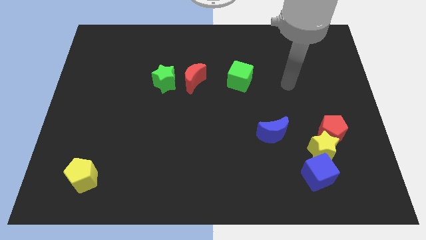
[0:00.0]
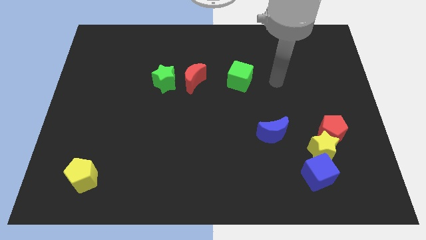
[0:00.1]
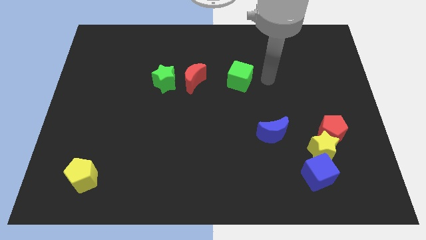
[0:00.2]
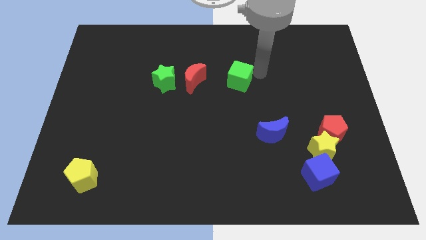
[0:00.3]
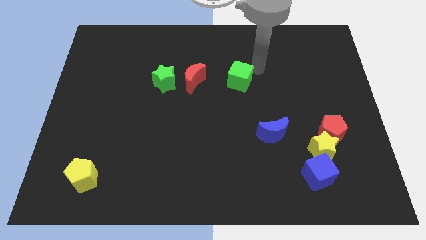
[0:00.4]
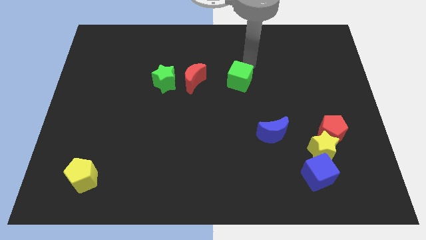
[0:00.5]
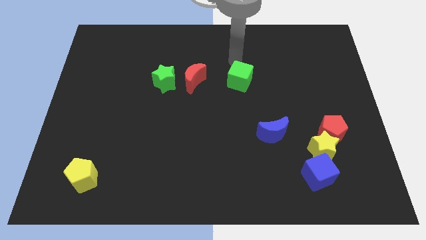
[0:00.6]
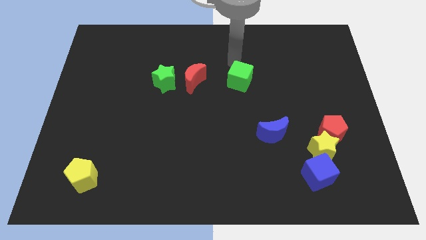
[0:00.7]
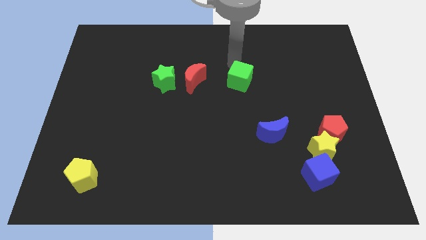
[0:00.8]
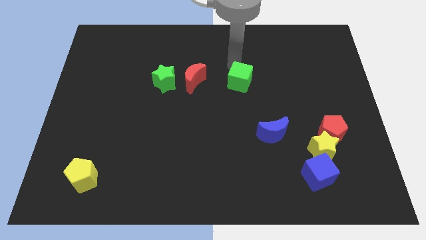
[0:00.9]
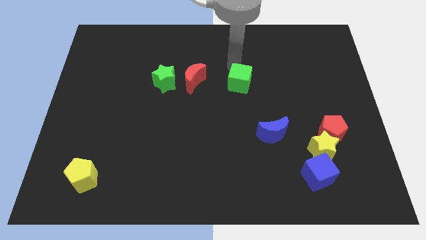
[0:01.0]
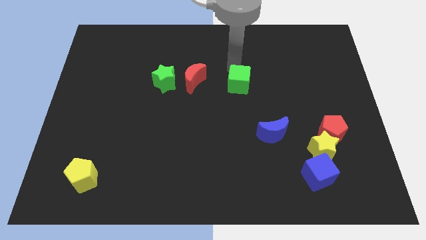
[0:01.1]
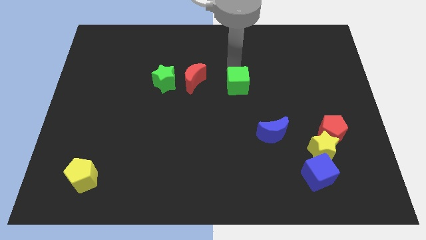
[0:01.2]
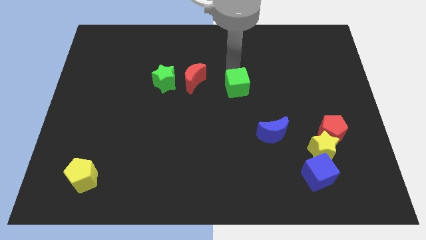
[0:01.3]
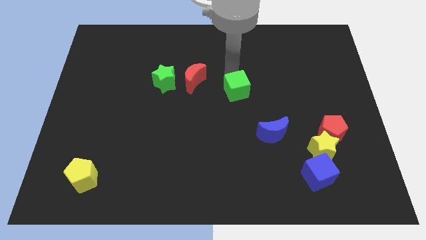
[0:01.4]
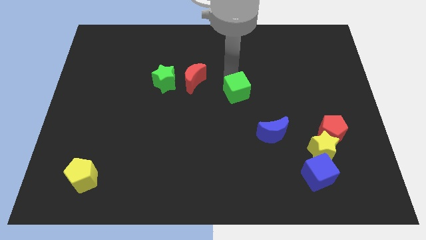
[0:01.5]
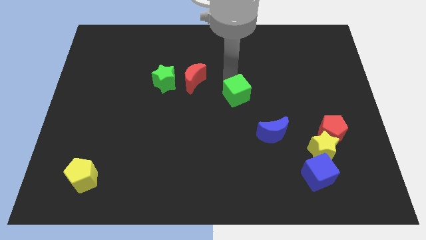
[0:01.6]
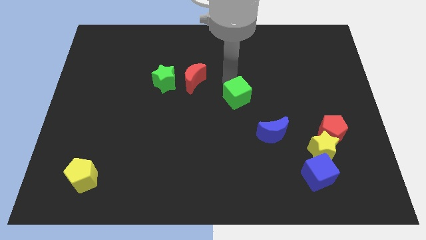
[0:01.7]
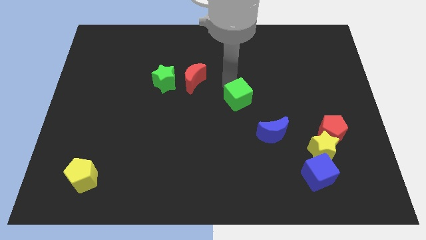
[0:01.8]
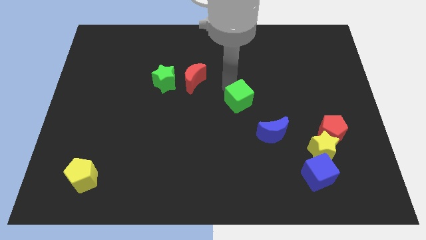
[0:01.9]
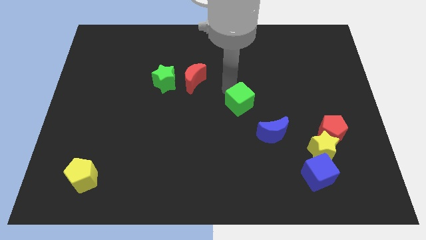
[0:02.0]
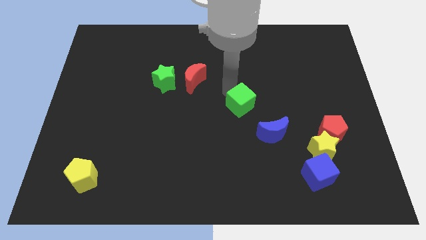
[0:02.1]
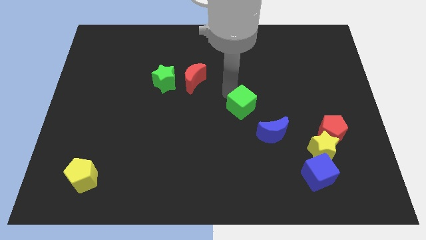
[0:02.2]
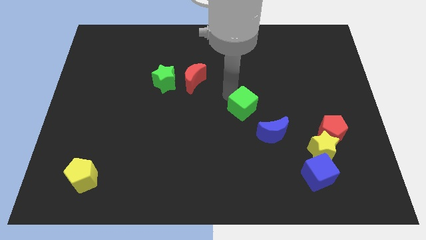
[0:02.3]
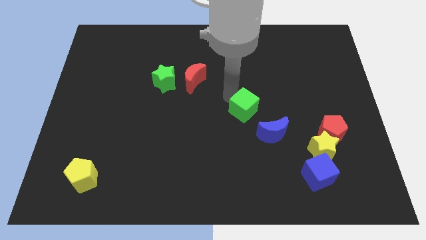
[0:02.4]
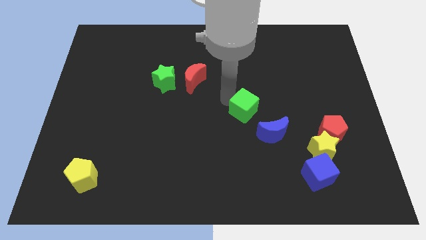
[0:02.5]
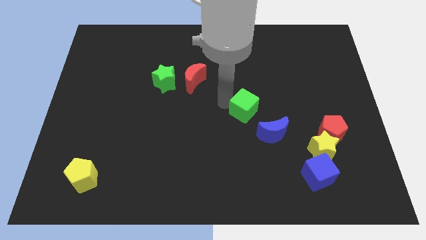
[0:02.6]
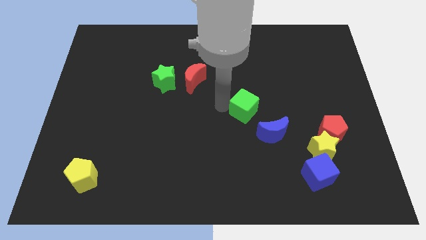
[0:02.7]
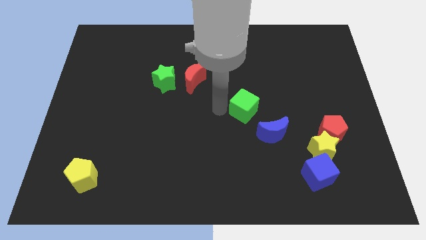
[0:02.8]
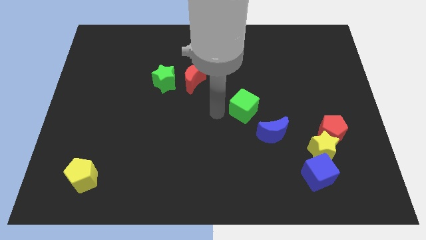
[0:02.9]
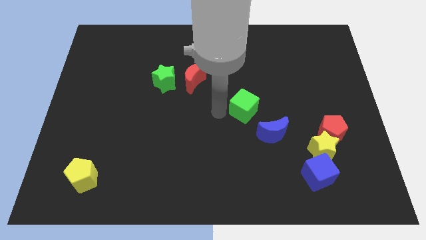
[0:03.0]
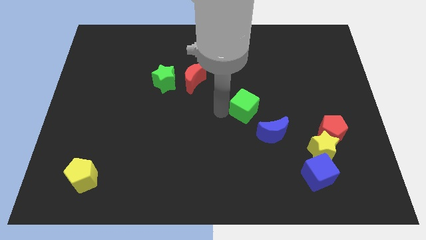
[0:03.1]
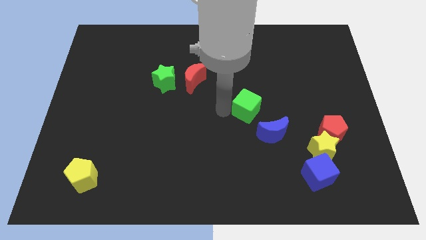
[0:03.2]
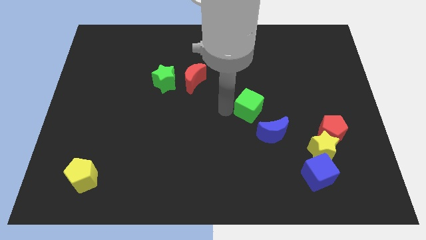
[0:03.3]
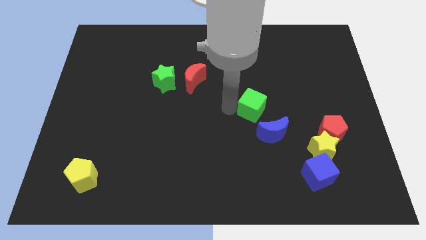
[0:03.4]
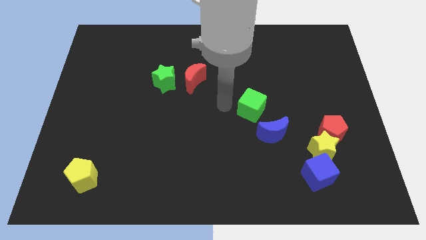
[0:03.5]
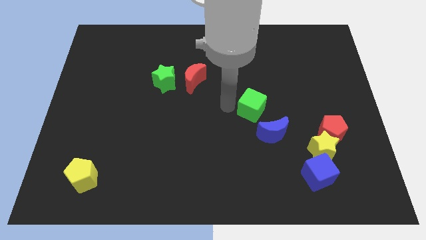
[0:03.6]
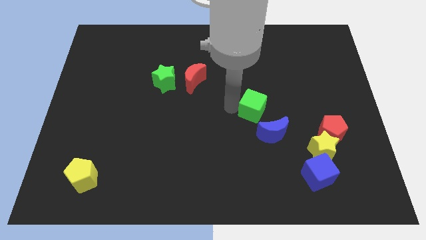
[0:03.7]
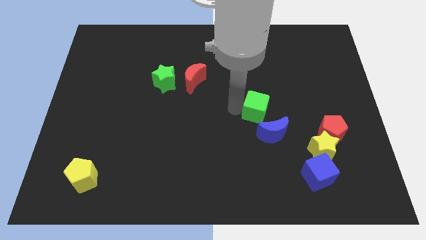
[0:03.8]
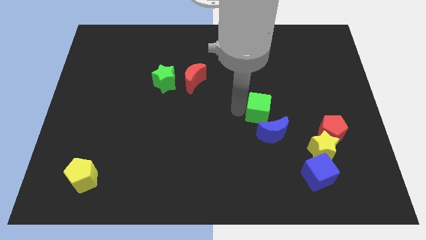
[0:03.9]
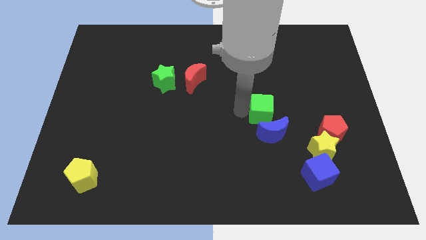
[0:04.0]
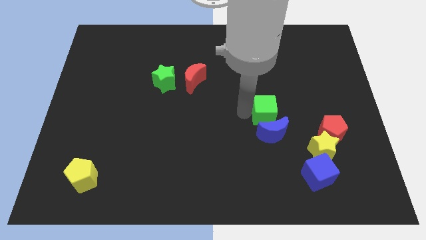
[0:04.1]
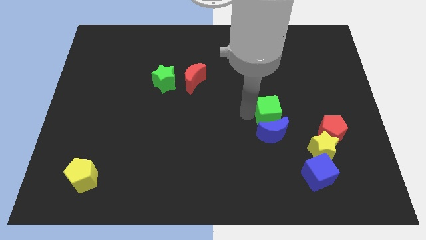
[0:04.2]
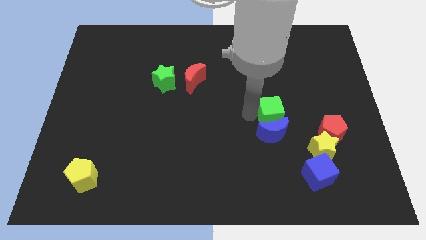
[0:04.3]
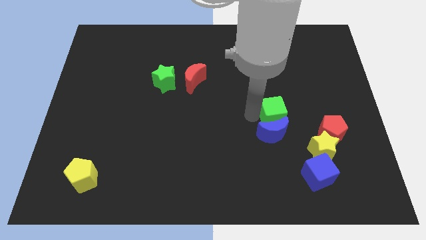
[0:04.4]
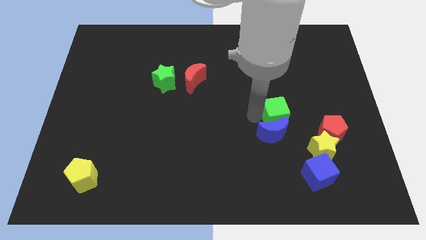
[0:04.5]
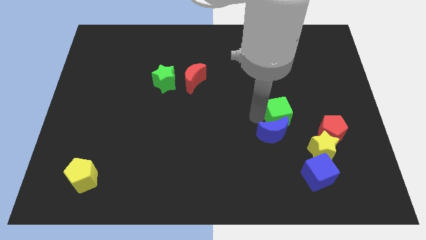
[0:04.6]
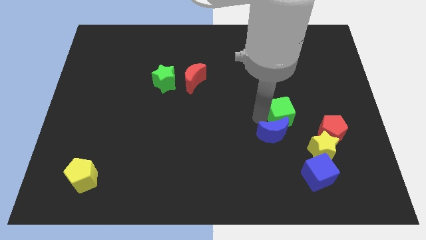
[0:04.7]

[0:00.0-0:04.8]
slide the green cube to the top left of the red pentagon

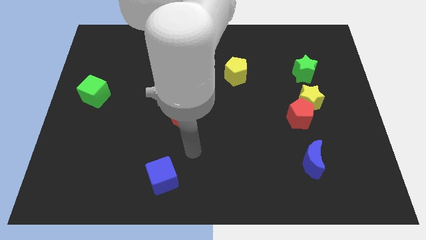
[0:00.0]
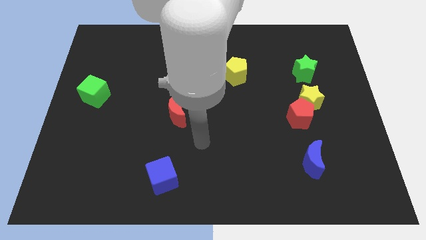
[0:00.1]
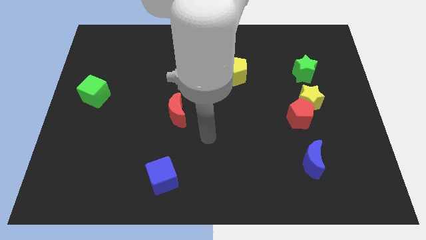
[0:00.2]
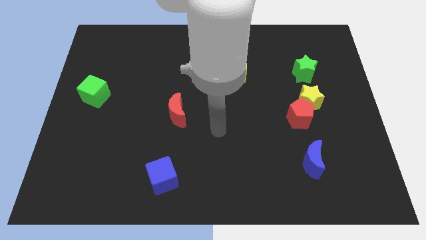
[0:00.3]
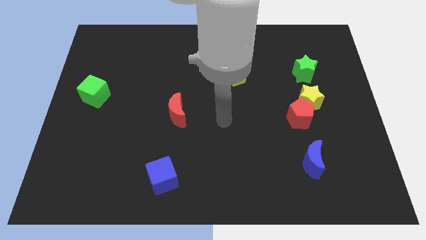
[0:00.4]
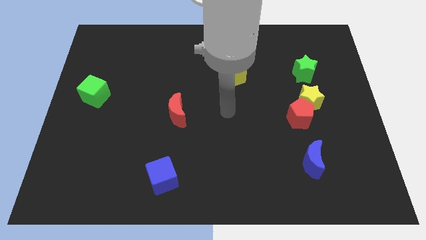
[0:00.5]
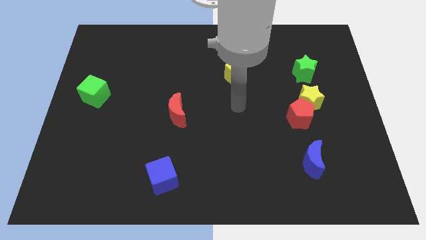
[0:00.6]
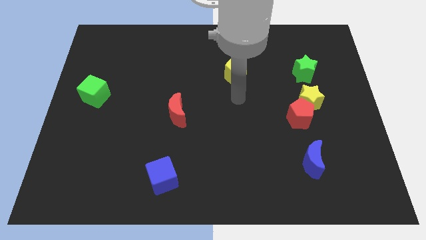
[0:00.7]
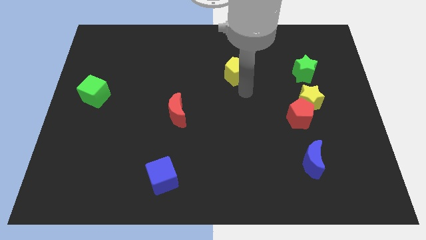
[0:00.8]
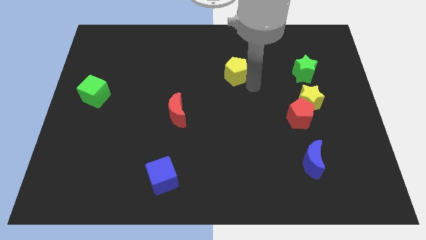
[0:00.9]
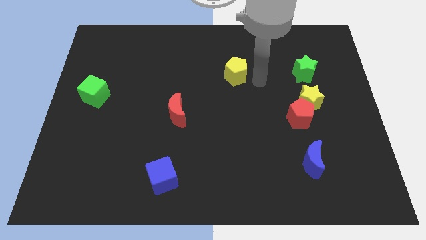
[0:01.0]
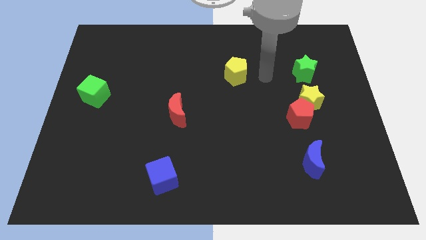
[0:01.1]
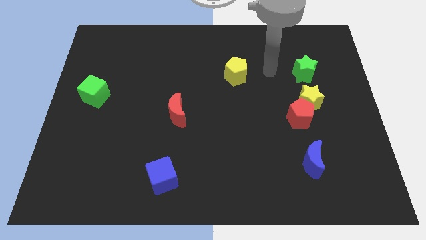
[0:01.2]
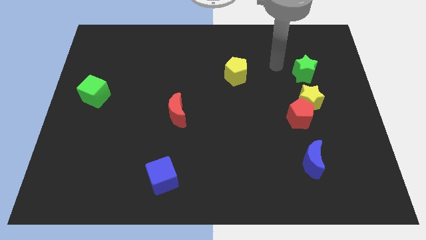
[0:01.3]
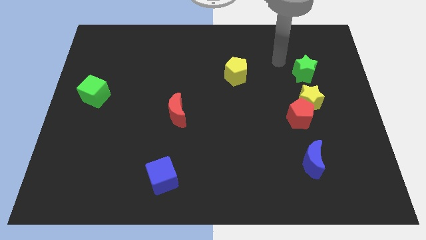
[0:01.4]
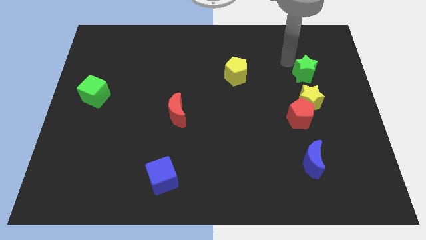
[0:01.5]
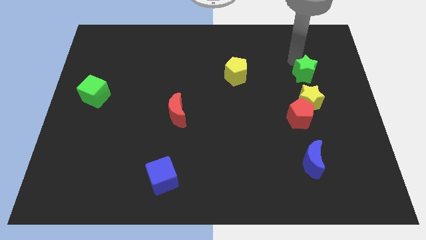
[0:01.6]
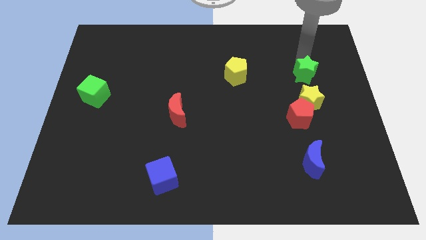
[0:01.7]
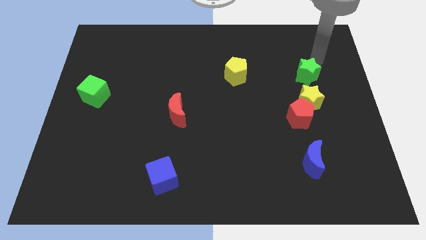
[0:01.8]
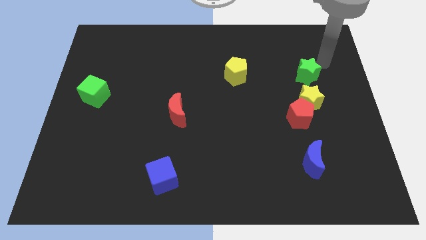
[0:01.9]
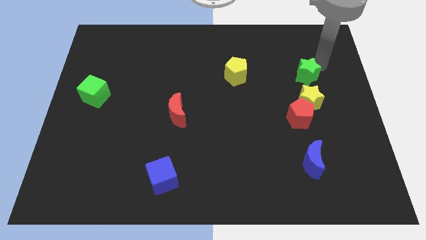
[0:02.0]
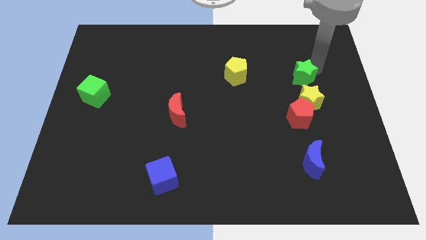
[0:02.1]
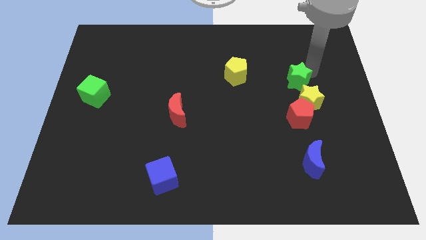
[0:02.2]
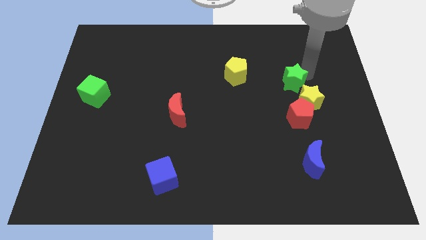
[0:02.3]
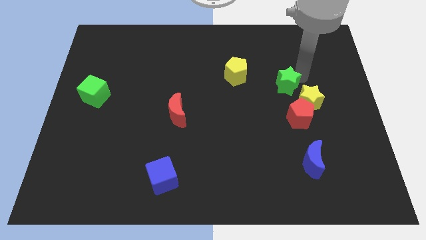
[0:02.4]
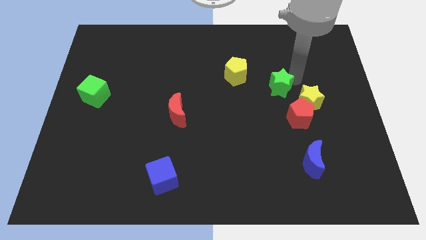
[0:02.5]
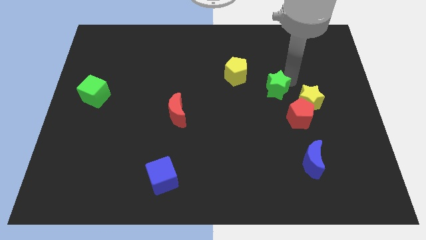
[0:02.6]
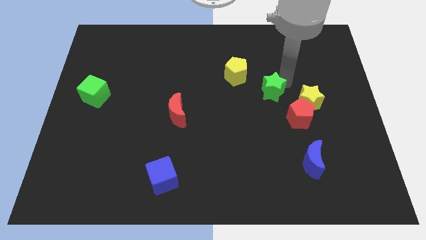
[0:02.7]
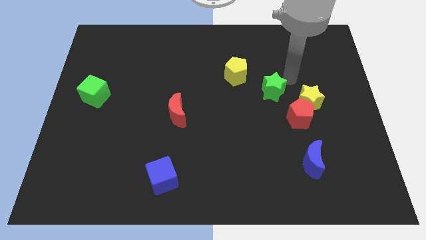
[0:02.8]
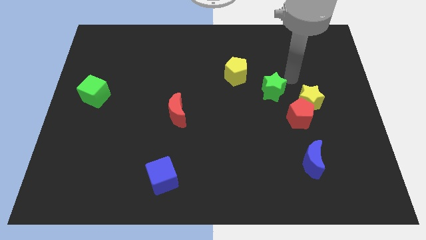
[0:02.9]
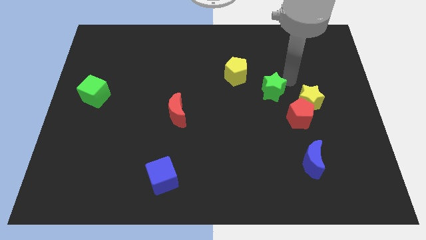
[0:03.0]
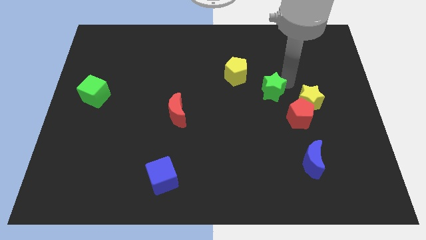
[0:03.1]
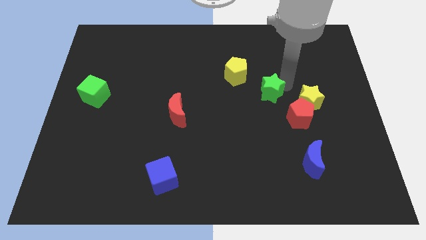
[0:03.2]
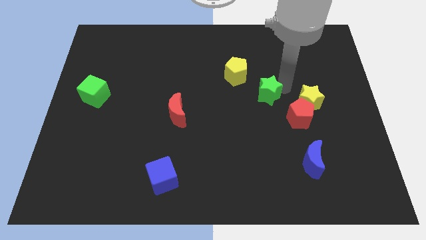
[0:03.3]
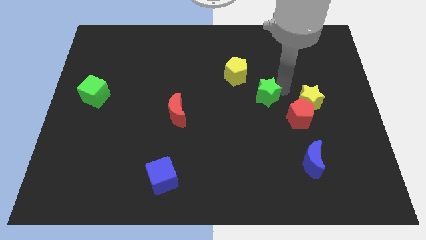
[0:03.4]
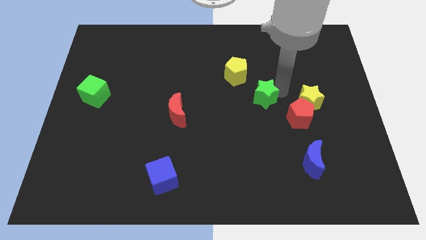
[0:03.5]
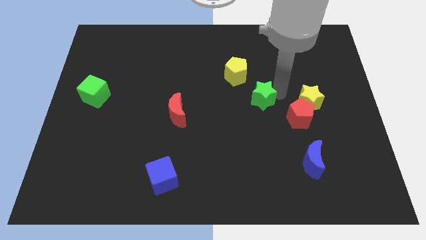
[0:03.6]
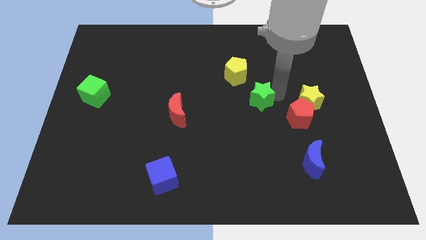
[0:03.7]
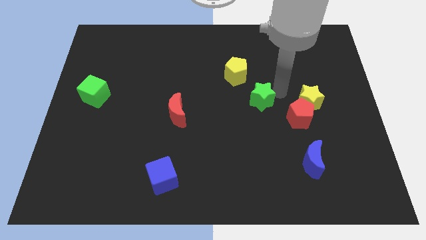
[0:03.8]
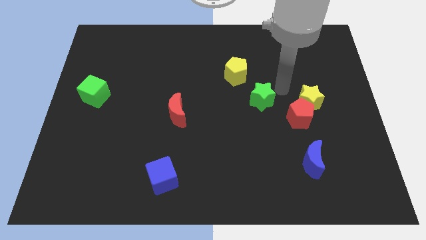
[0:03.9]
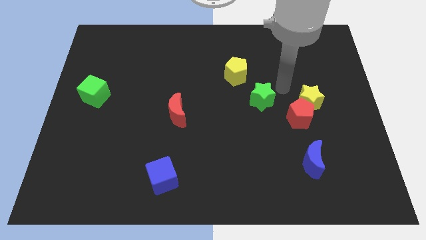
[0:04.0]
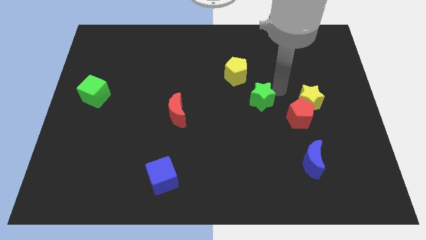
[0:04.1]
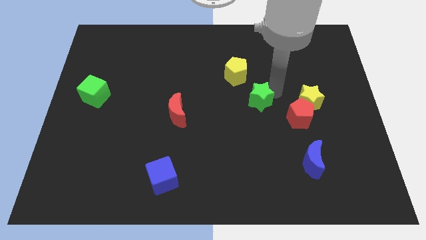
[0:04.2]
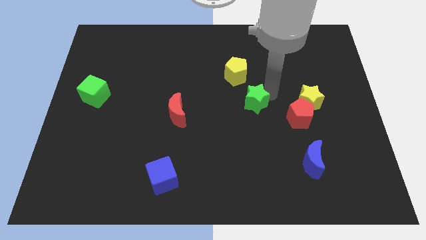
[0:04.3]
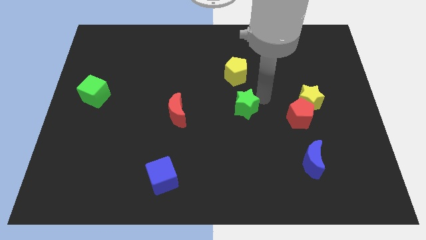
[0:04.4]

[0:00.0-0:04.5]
put the green star just right of the red moon
